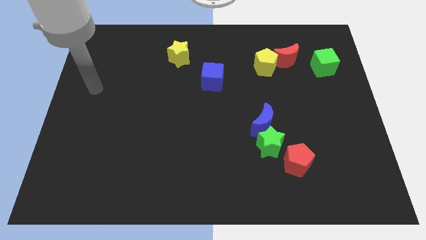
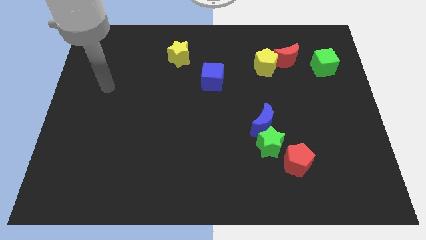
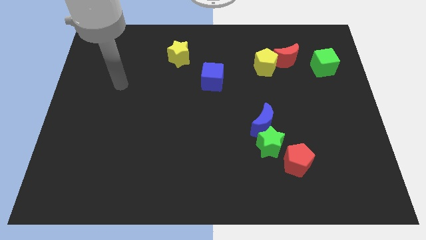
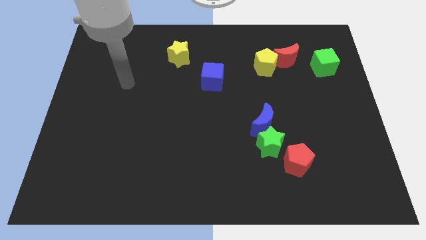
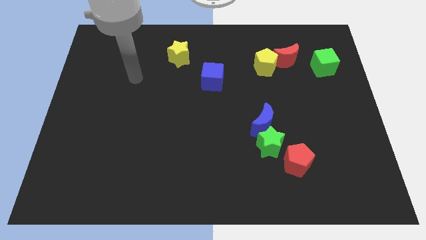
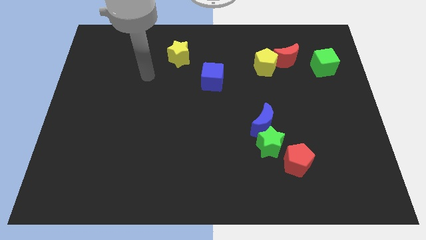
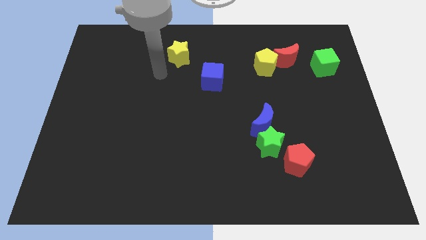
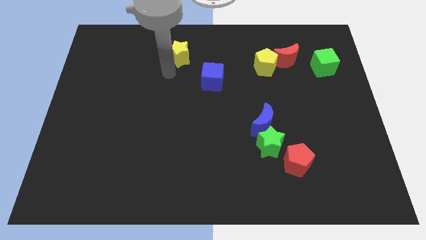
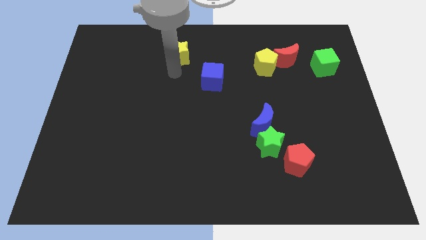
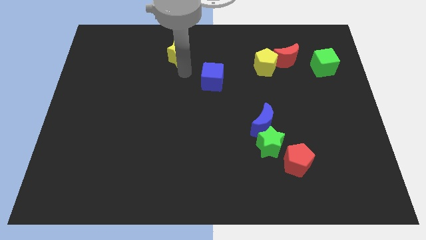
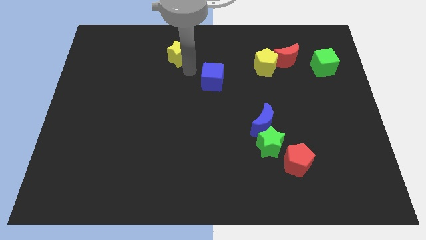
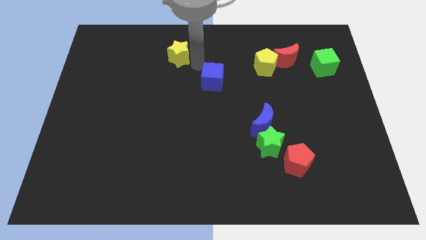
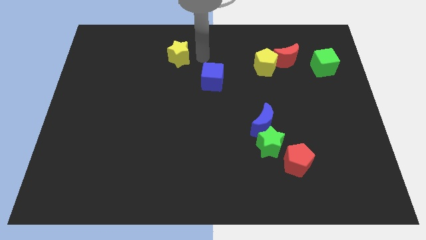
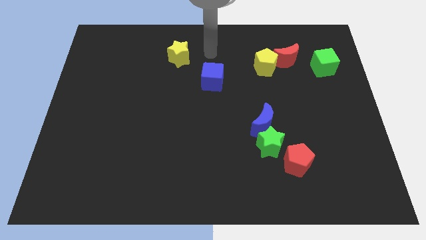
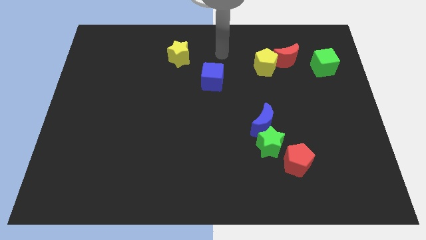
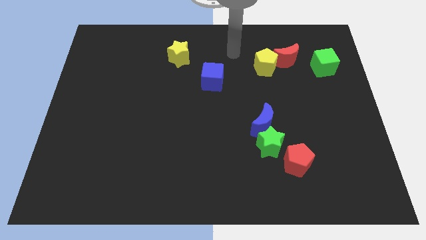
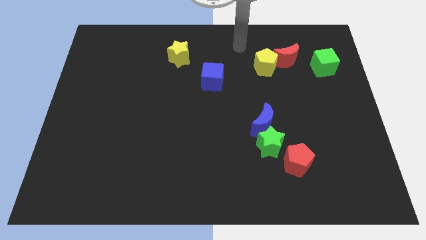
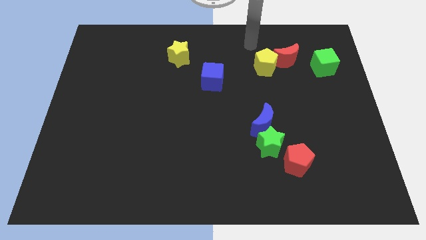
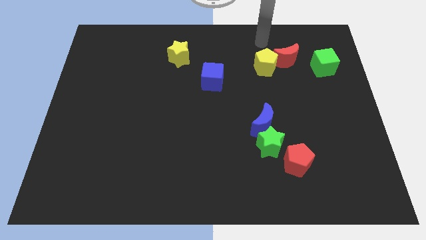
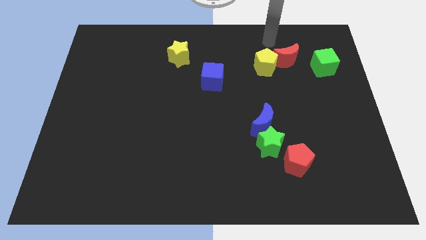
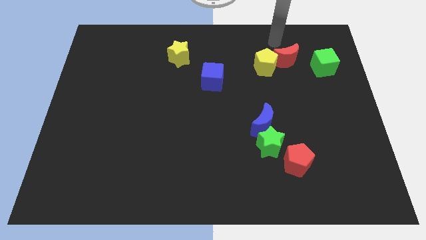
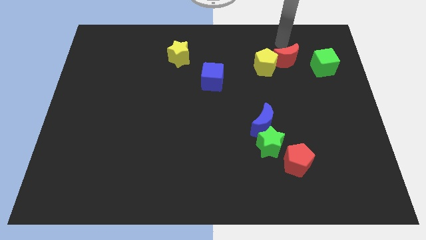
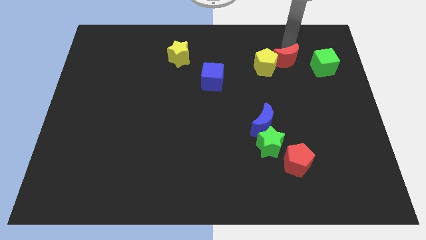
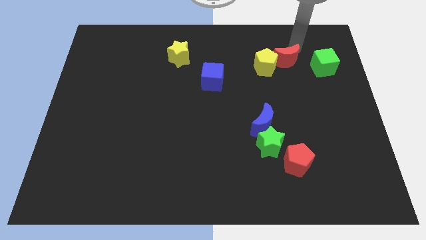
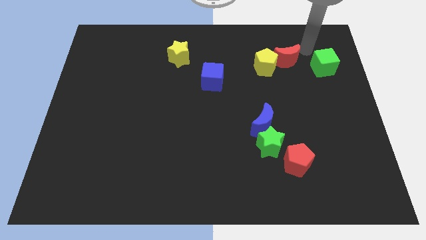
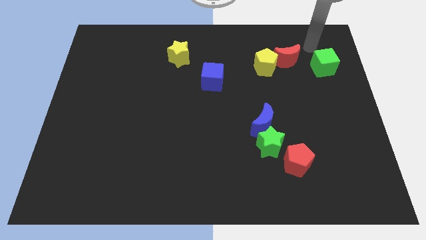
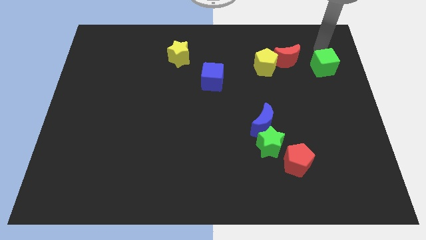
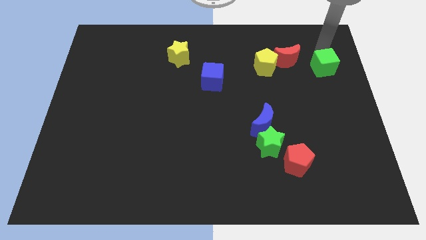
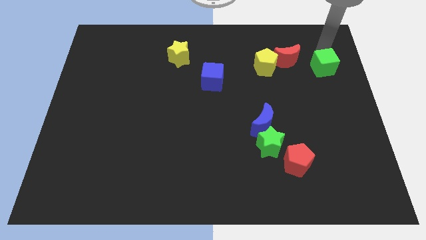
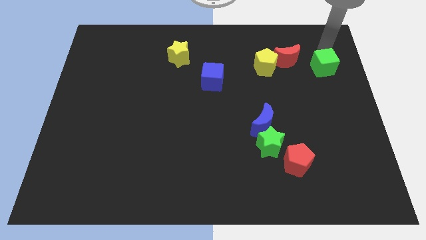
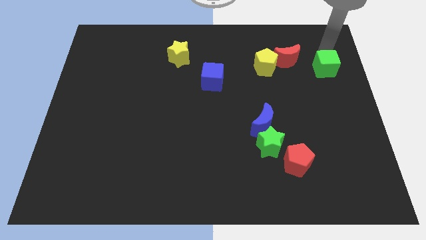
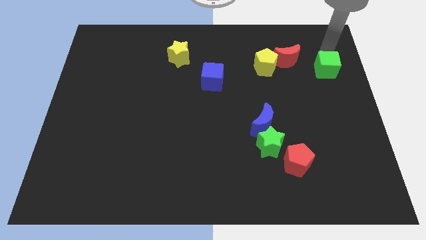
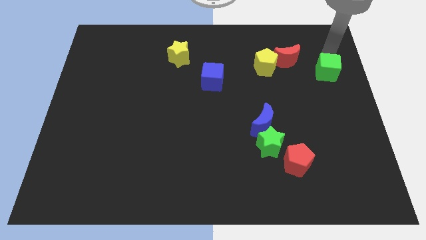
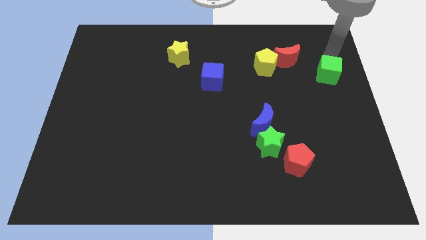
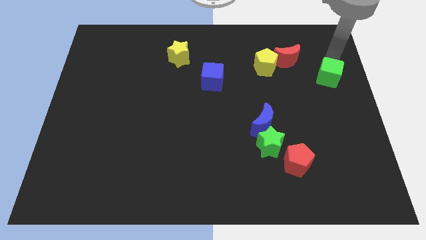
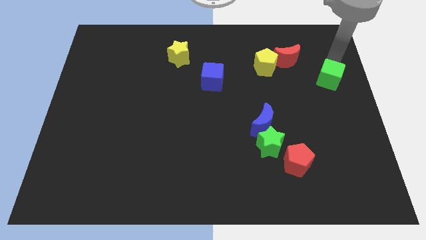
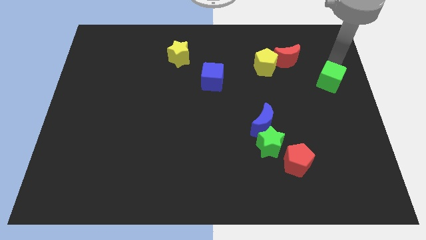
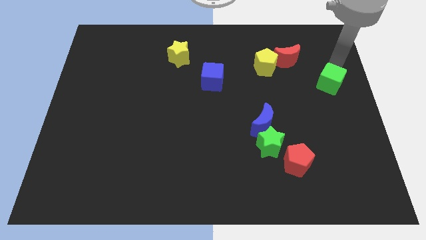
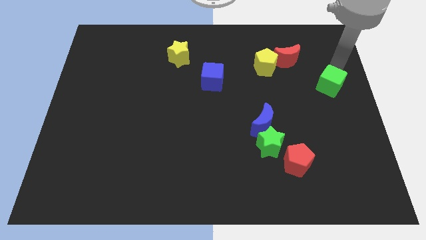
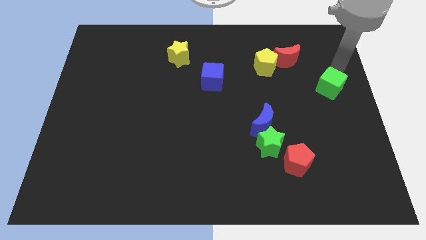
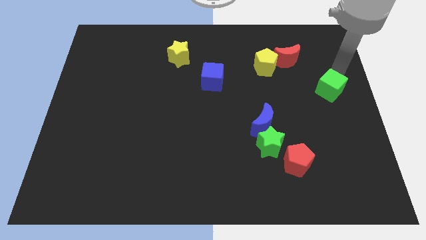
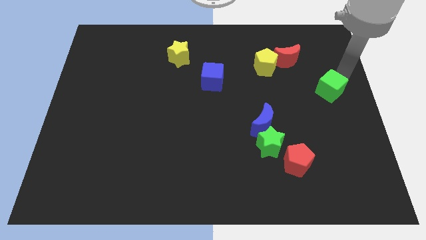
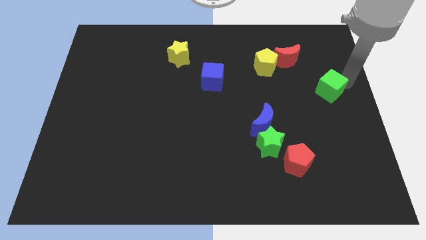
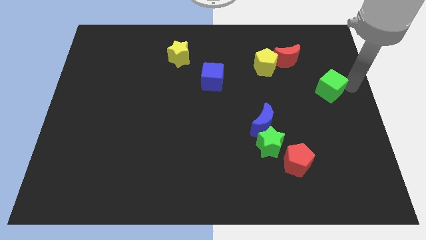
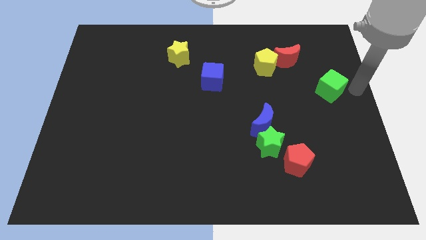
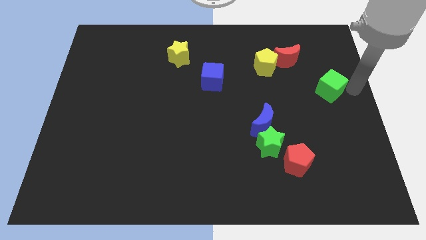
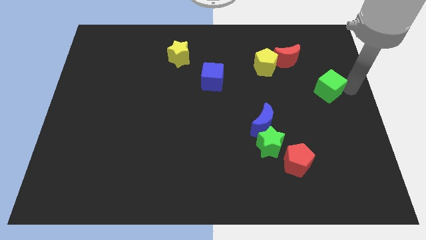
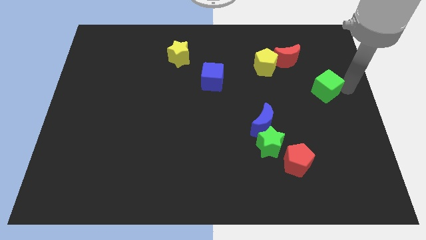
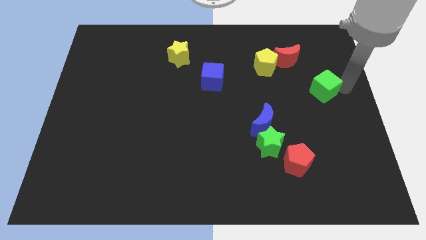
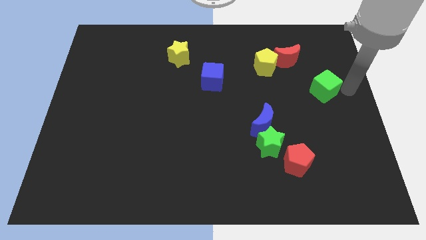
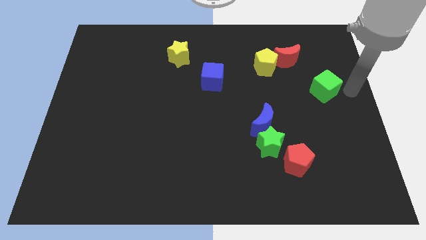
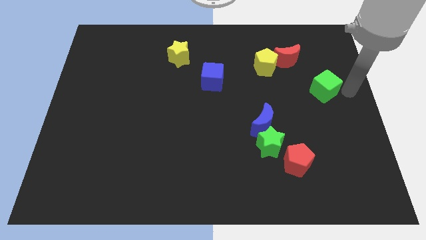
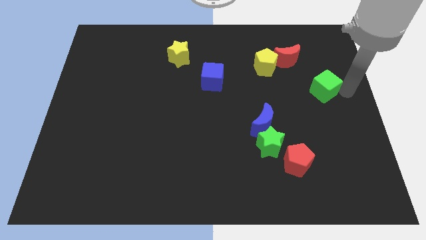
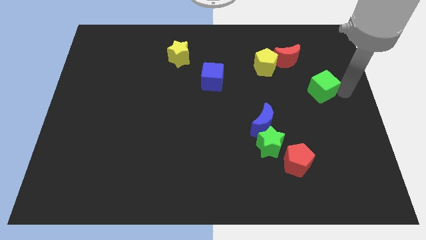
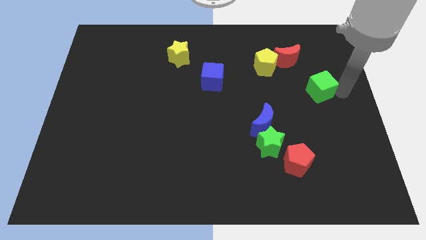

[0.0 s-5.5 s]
slightly push the green cube diagonally down and to the left

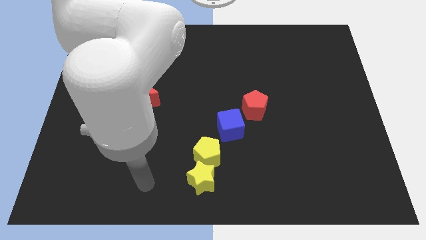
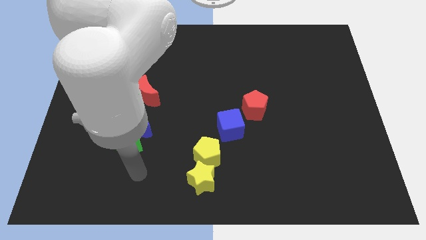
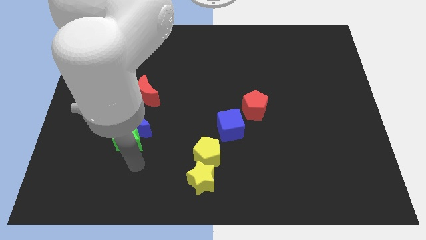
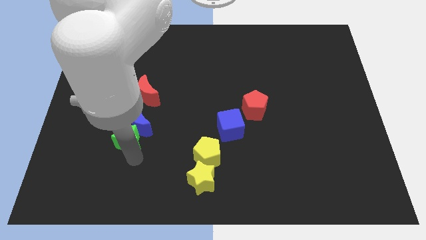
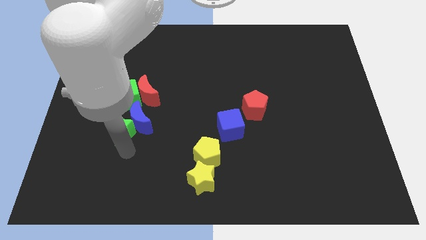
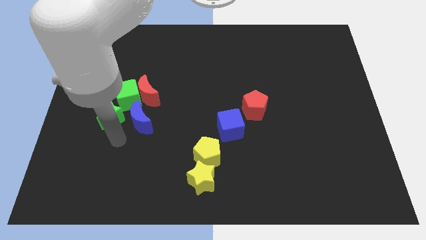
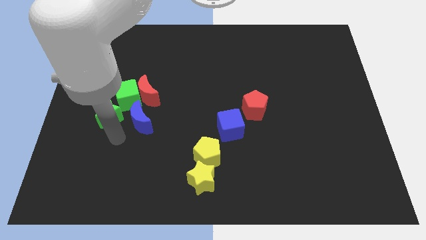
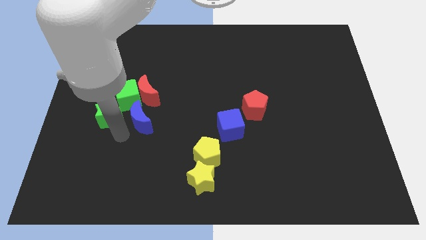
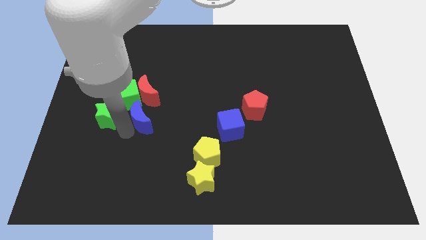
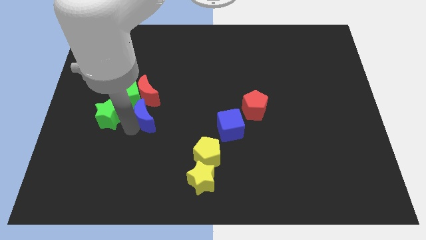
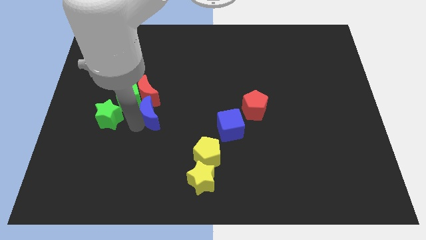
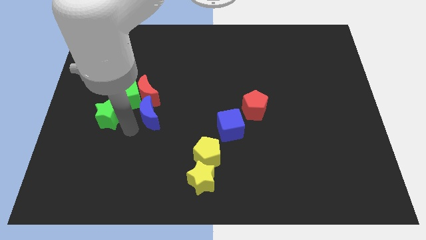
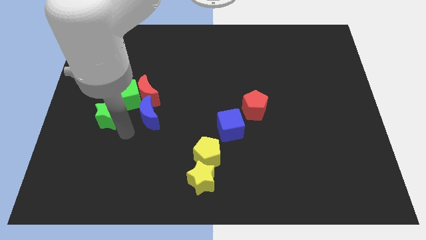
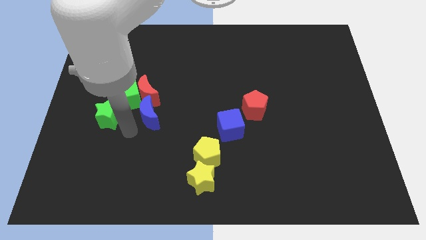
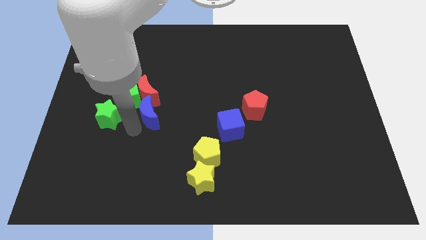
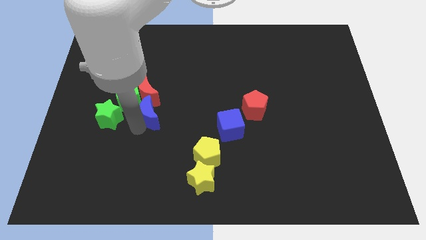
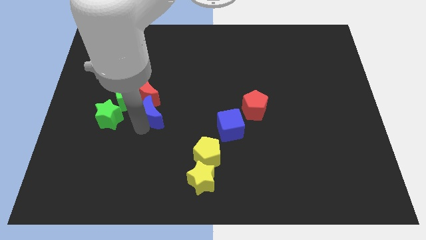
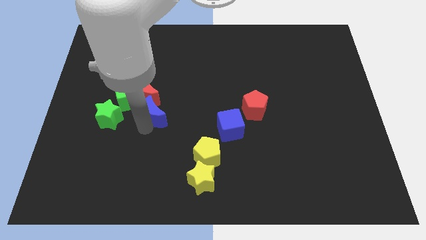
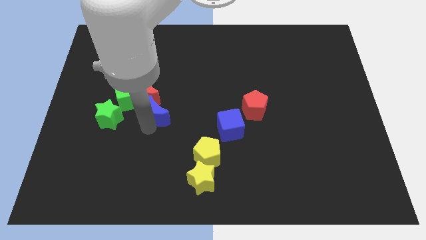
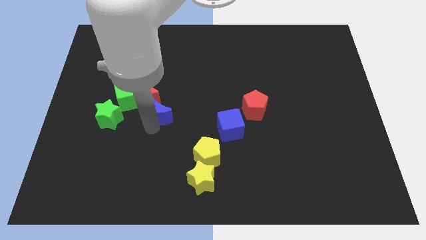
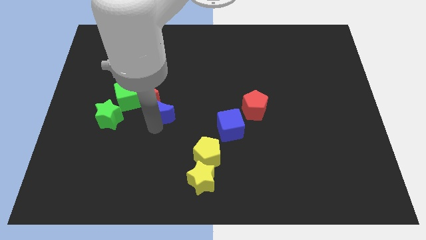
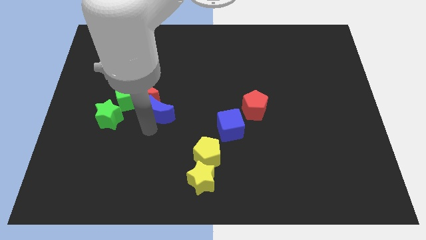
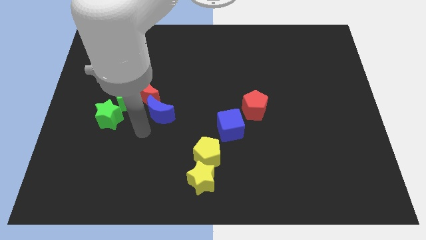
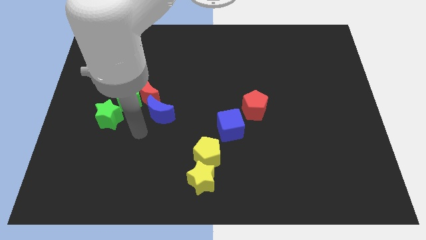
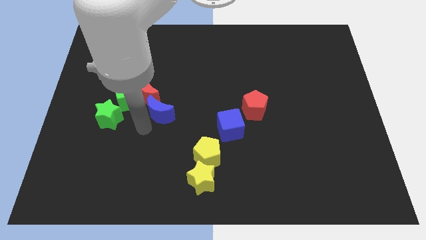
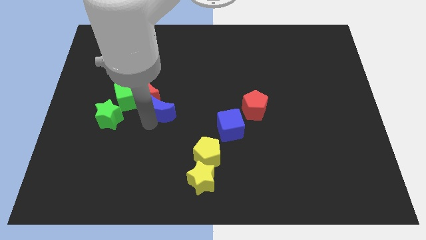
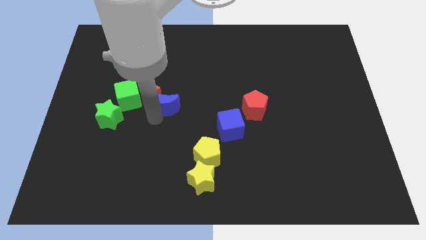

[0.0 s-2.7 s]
slightly move the blue moon diagonally upwards and to the right
